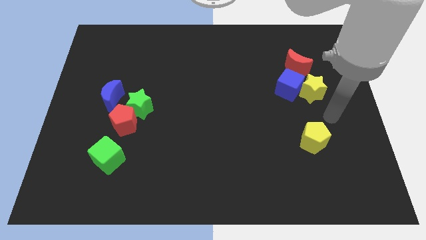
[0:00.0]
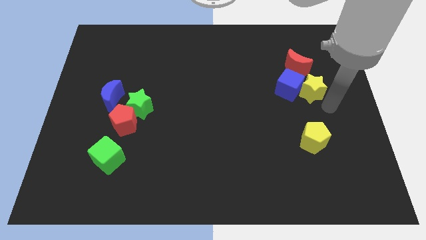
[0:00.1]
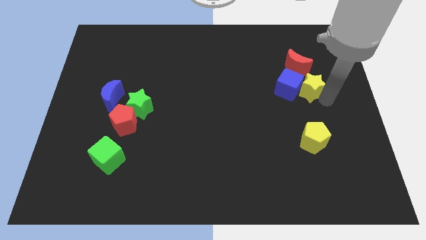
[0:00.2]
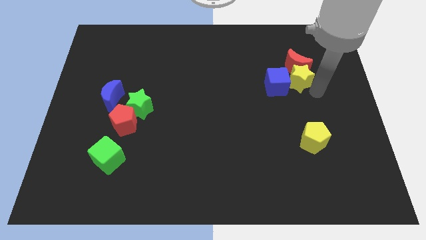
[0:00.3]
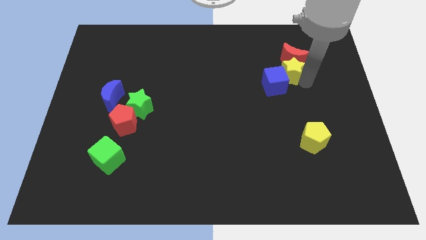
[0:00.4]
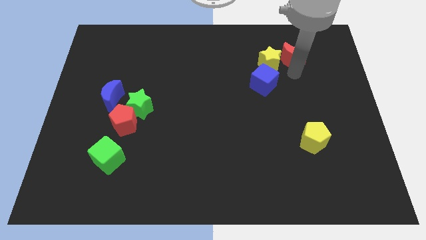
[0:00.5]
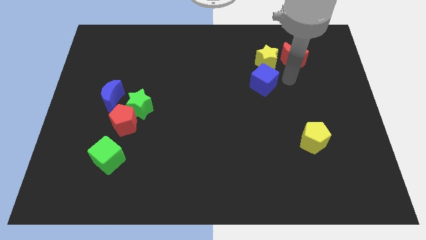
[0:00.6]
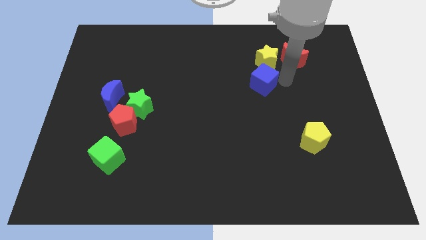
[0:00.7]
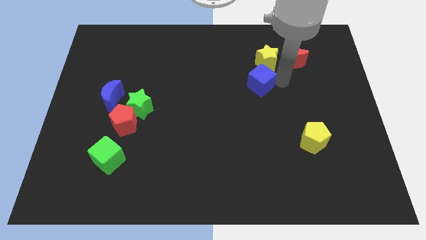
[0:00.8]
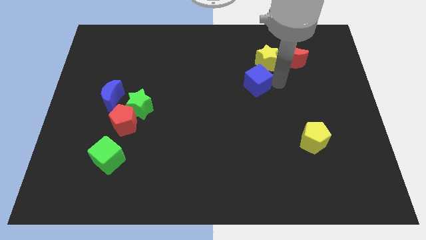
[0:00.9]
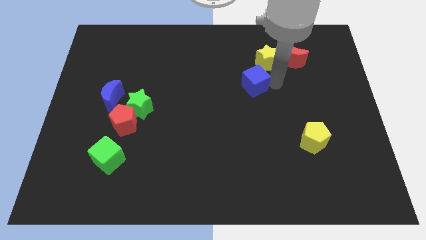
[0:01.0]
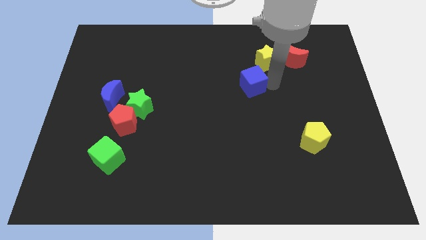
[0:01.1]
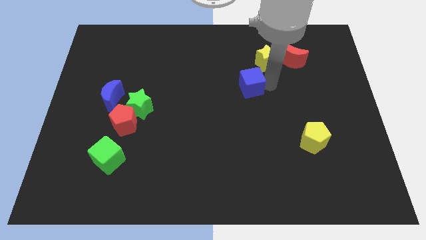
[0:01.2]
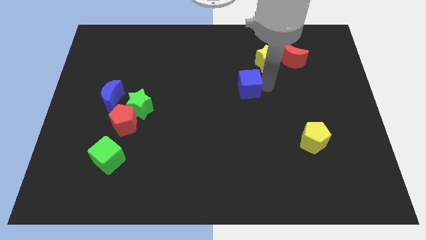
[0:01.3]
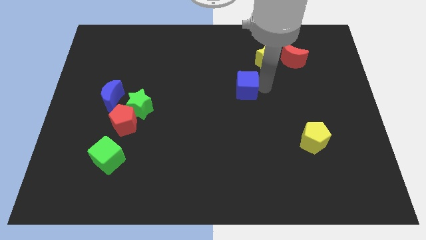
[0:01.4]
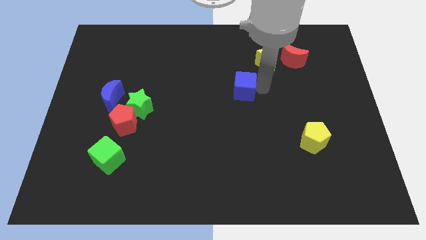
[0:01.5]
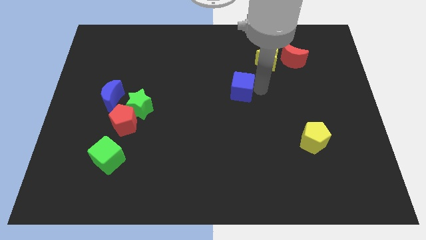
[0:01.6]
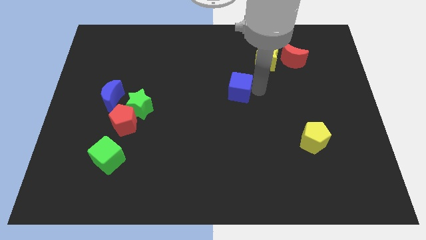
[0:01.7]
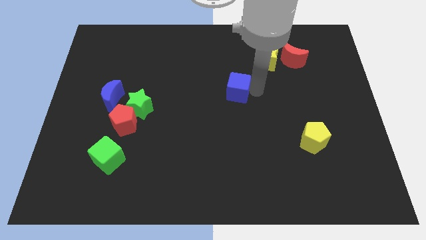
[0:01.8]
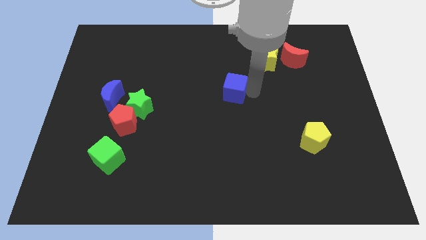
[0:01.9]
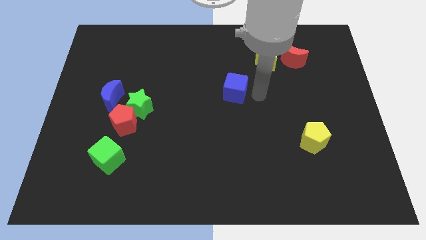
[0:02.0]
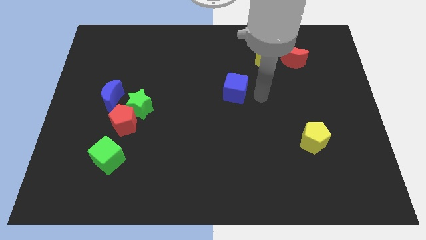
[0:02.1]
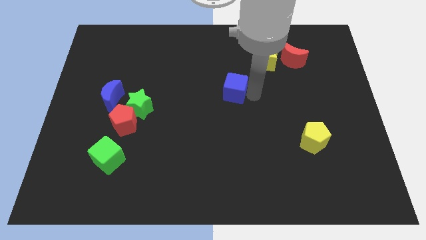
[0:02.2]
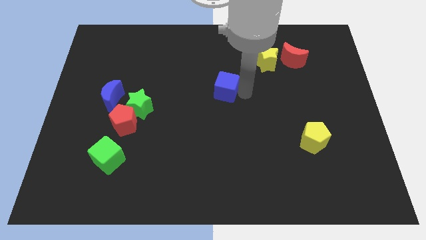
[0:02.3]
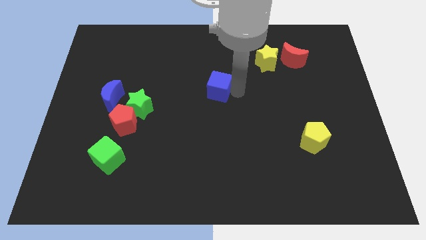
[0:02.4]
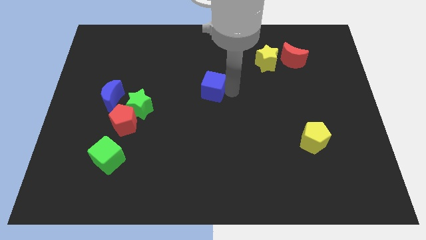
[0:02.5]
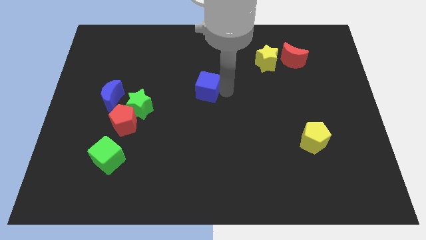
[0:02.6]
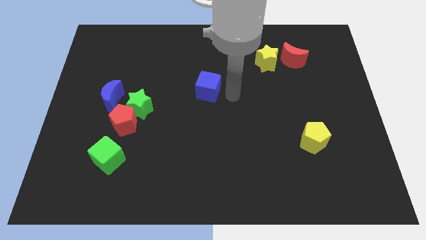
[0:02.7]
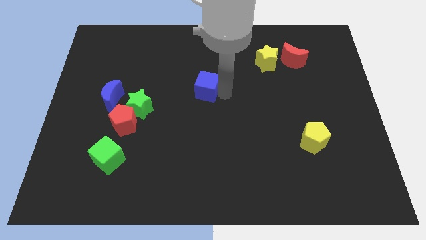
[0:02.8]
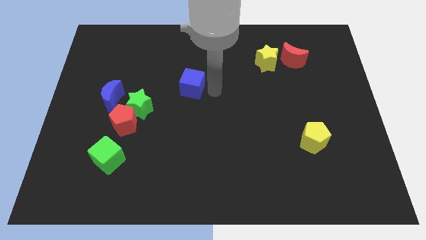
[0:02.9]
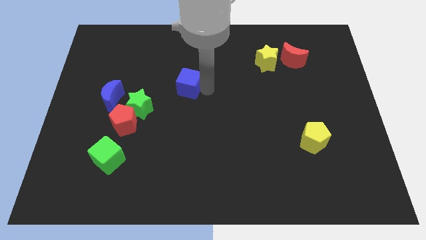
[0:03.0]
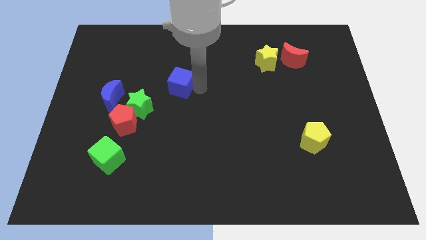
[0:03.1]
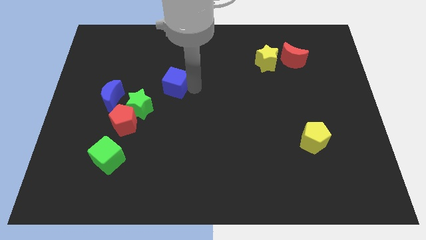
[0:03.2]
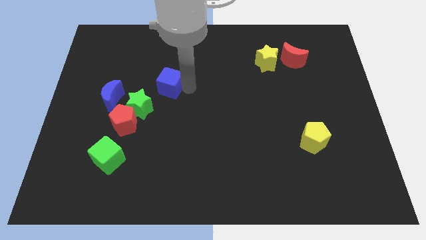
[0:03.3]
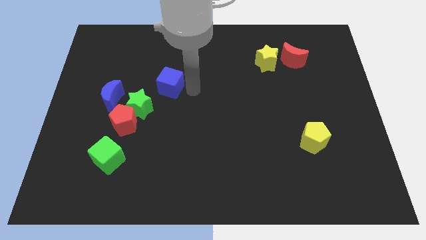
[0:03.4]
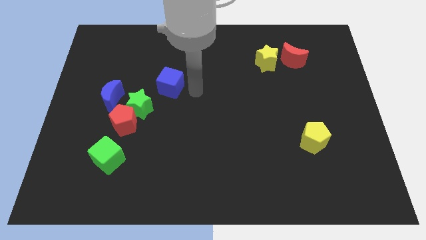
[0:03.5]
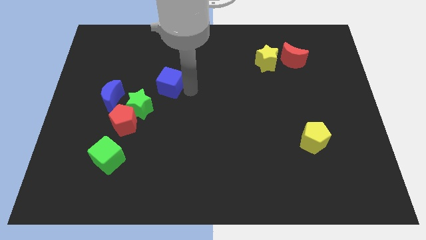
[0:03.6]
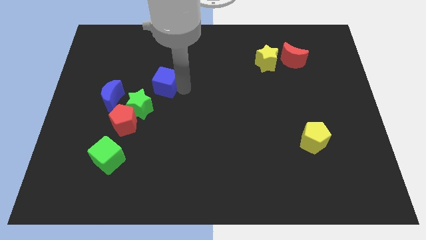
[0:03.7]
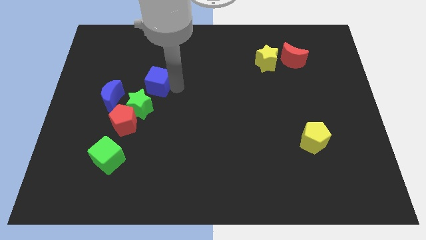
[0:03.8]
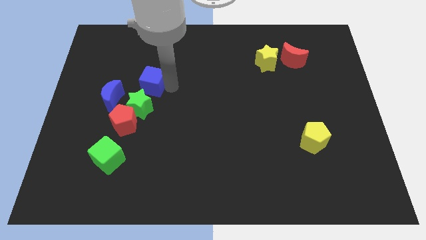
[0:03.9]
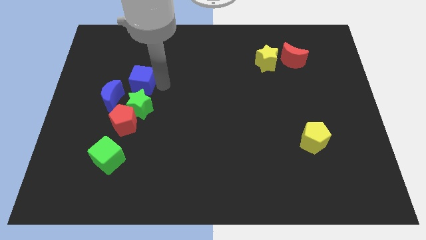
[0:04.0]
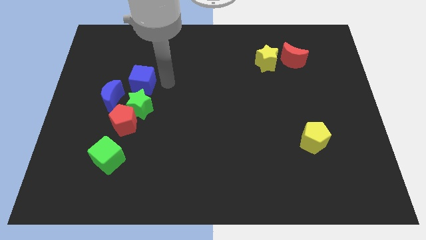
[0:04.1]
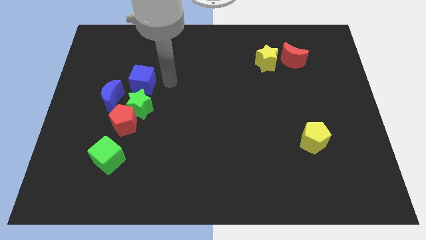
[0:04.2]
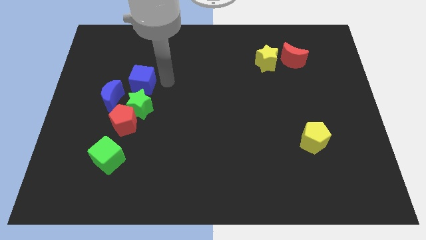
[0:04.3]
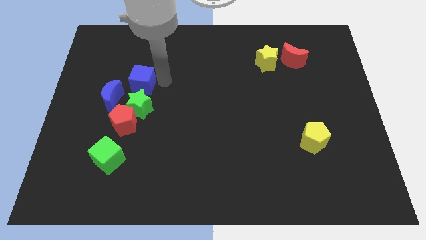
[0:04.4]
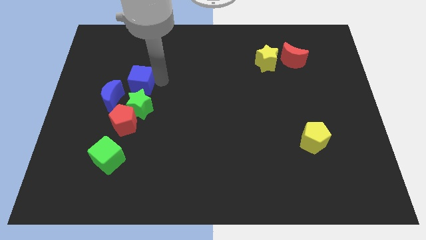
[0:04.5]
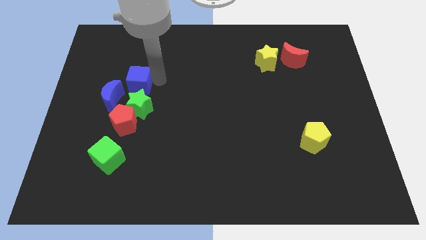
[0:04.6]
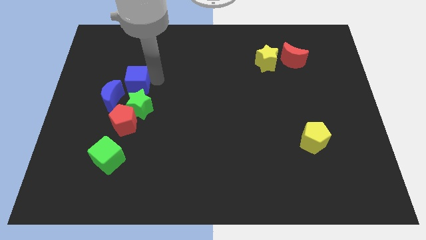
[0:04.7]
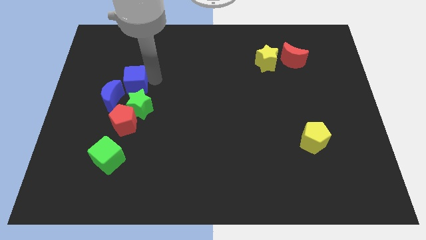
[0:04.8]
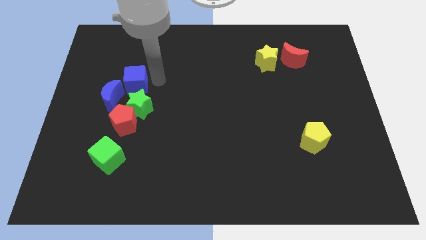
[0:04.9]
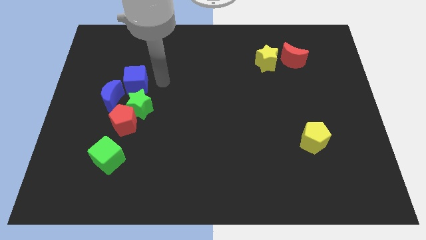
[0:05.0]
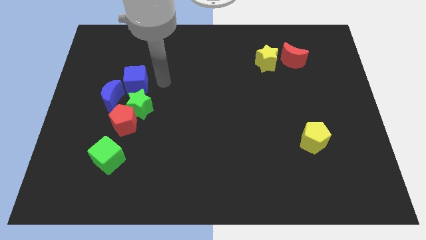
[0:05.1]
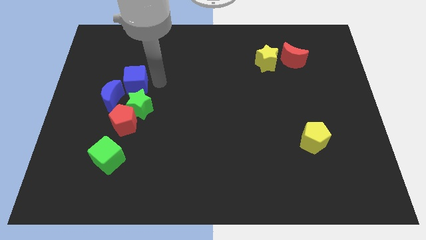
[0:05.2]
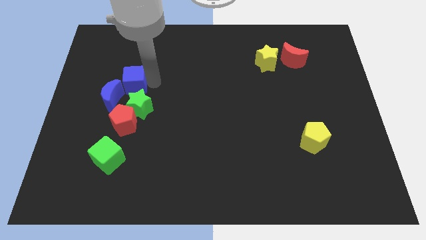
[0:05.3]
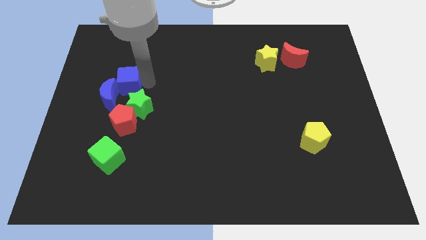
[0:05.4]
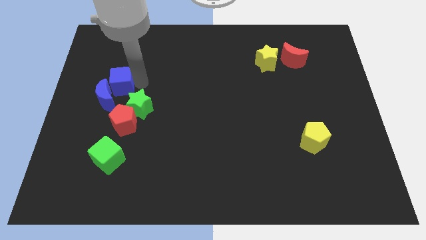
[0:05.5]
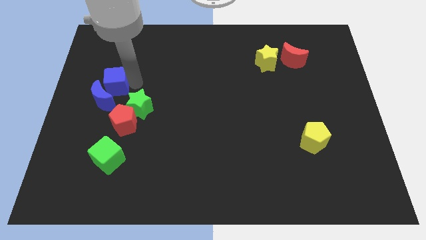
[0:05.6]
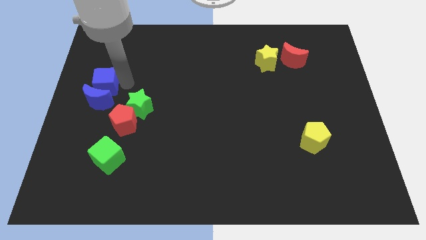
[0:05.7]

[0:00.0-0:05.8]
slide the blue cube to the left side
